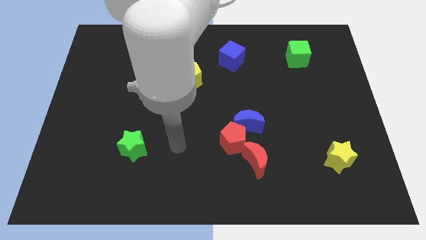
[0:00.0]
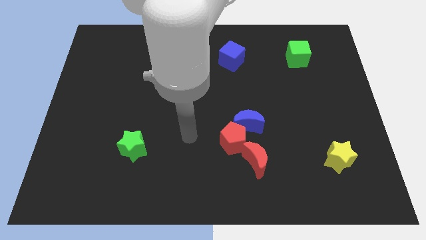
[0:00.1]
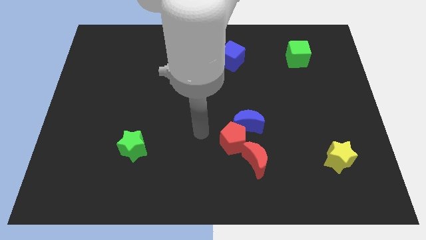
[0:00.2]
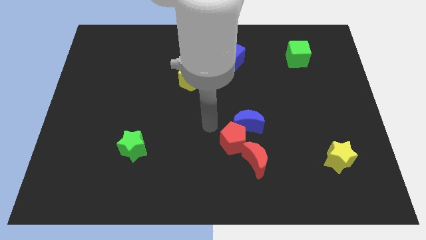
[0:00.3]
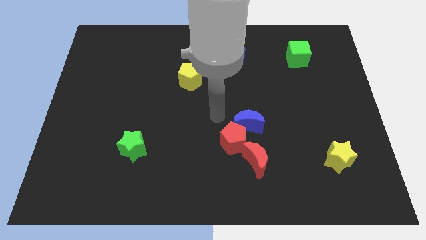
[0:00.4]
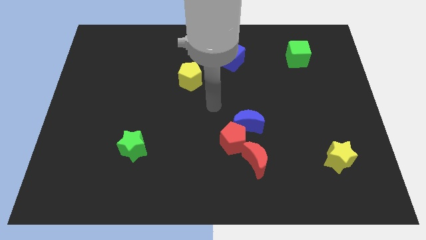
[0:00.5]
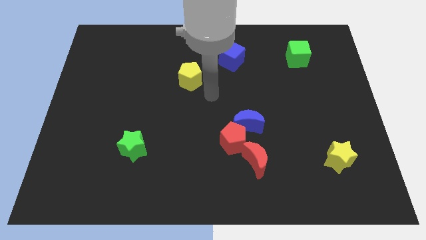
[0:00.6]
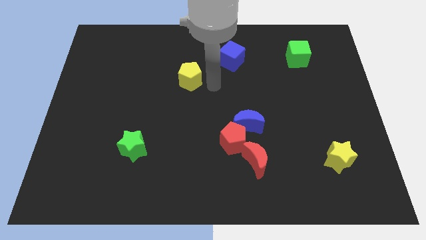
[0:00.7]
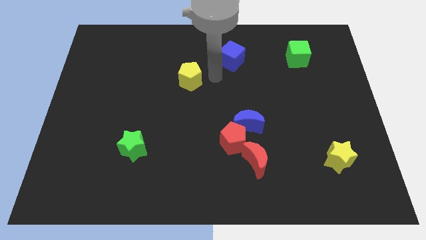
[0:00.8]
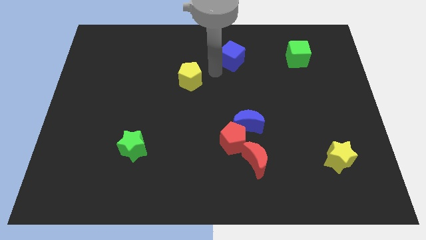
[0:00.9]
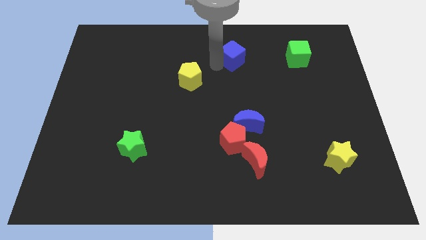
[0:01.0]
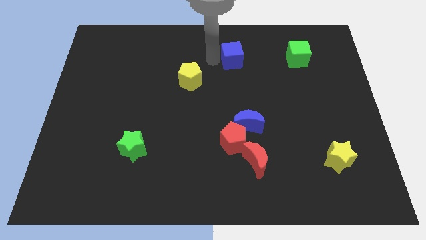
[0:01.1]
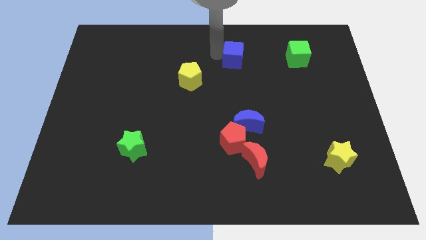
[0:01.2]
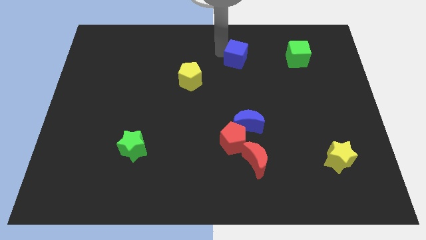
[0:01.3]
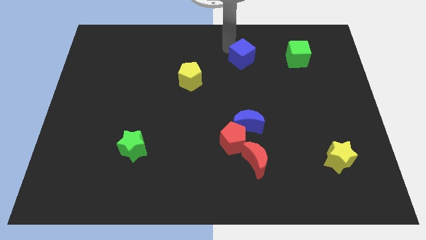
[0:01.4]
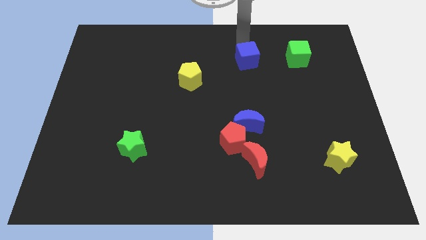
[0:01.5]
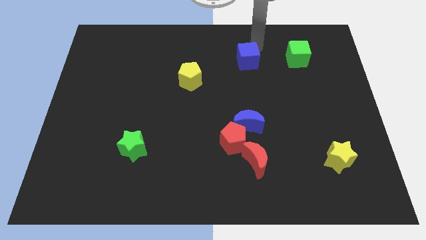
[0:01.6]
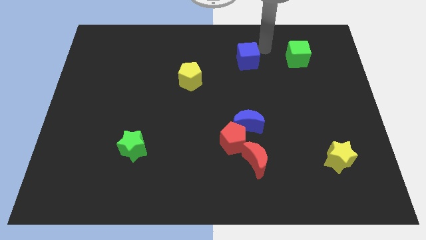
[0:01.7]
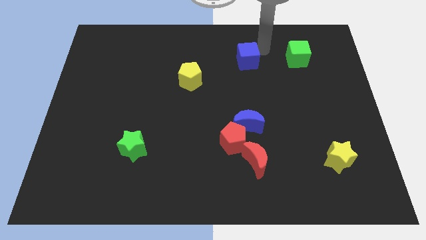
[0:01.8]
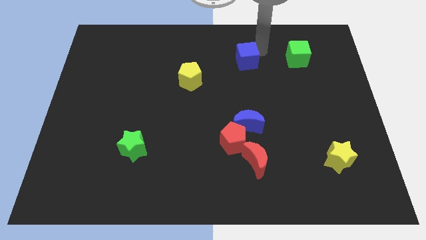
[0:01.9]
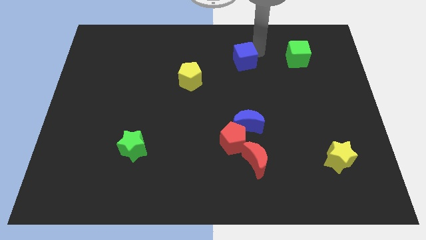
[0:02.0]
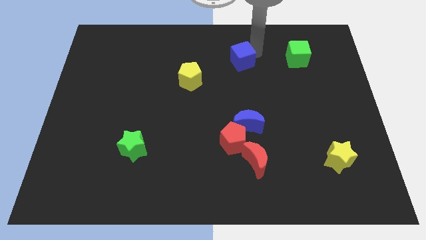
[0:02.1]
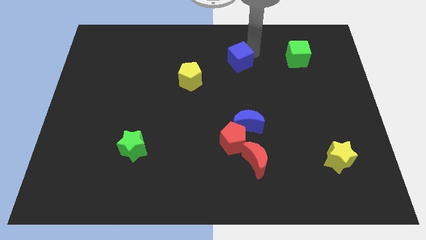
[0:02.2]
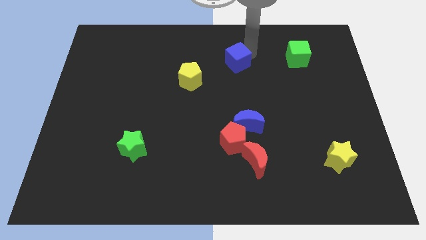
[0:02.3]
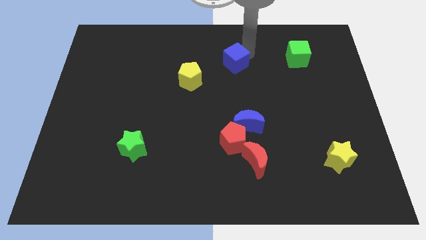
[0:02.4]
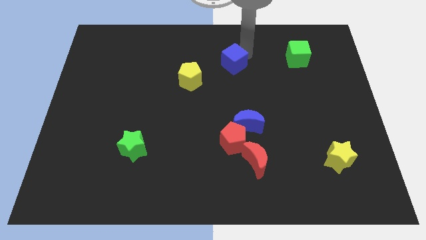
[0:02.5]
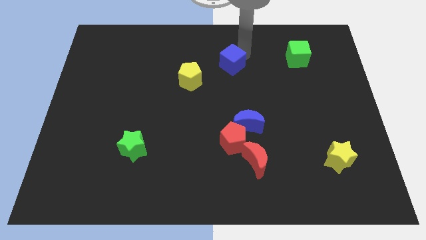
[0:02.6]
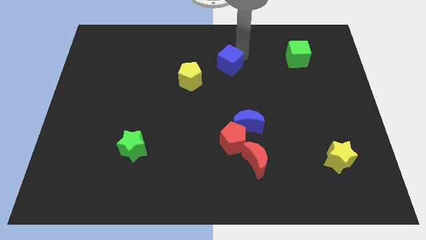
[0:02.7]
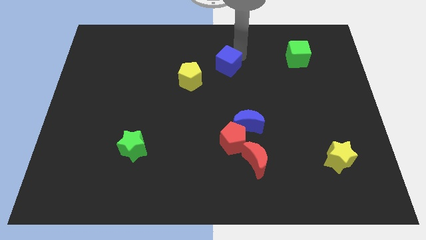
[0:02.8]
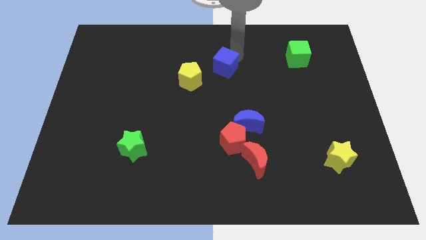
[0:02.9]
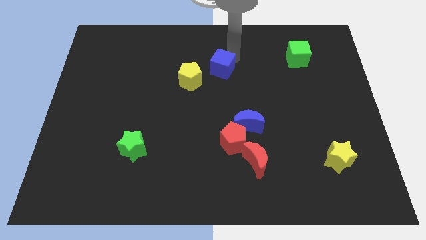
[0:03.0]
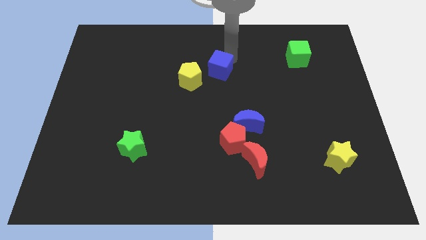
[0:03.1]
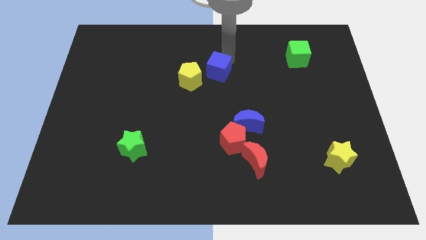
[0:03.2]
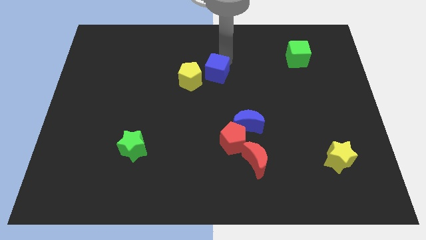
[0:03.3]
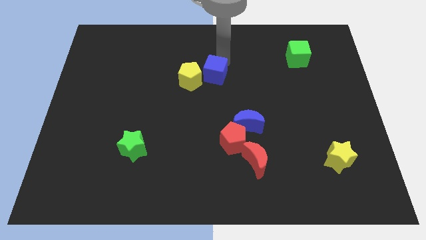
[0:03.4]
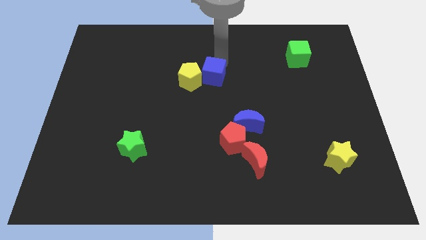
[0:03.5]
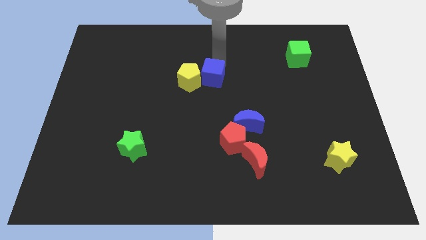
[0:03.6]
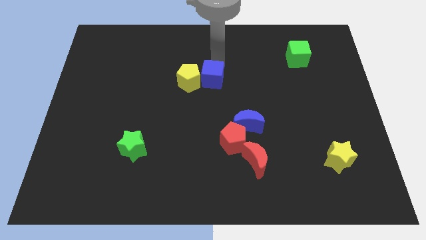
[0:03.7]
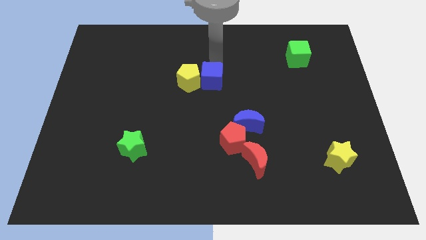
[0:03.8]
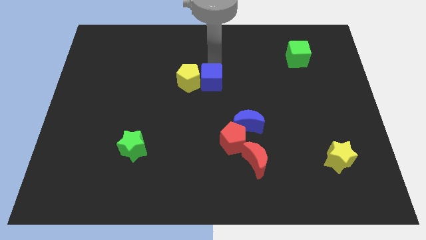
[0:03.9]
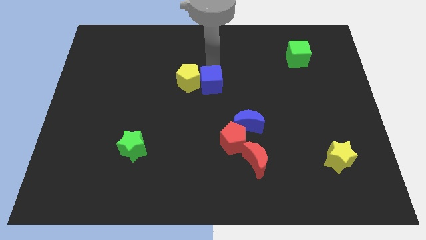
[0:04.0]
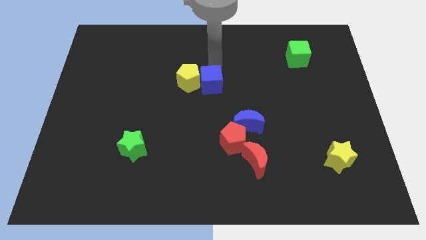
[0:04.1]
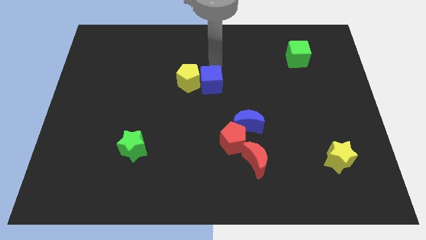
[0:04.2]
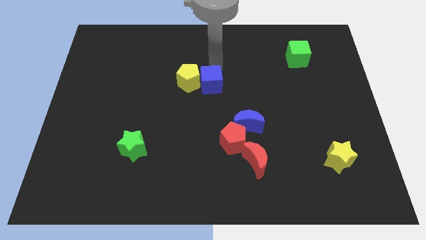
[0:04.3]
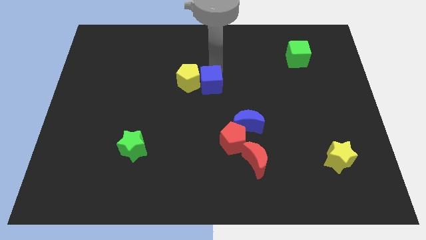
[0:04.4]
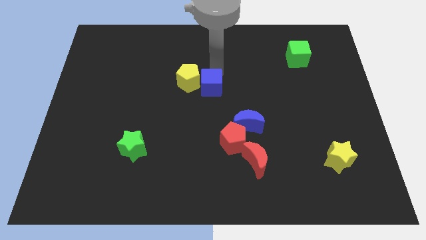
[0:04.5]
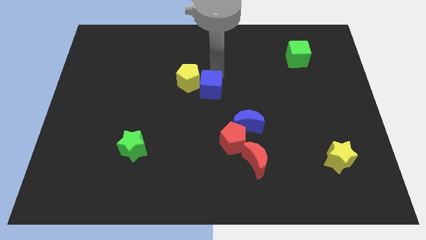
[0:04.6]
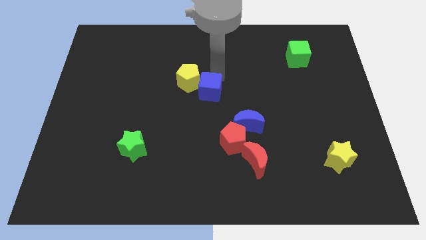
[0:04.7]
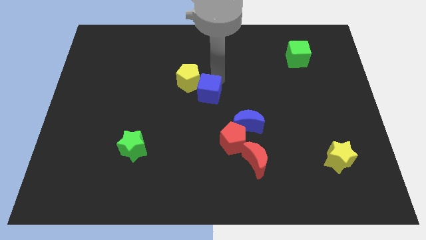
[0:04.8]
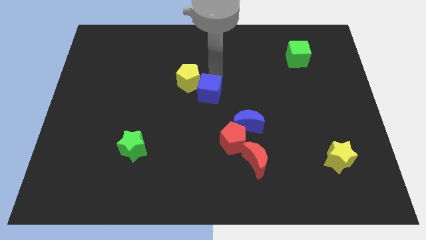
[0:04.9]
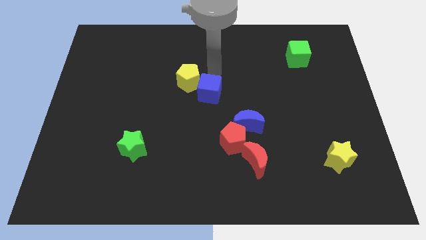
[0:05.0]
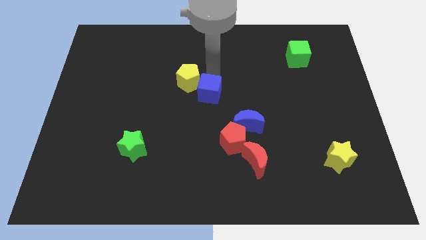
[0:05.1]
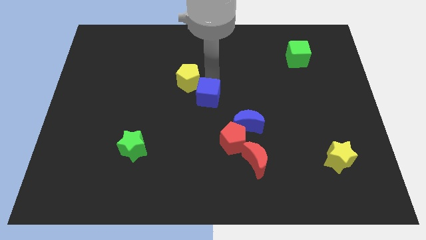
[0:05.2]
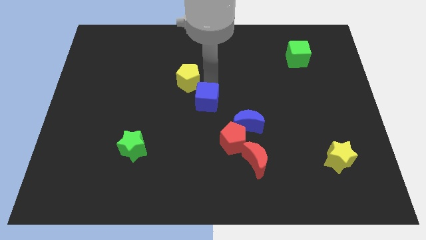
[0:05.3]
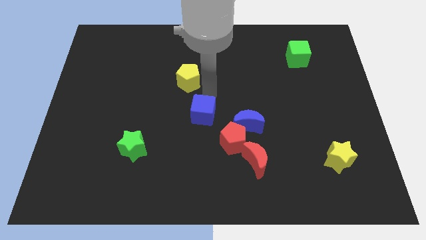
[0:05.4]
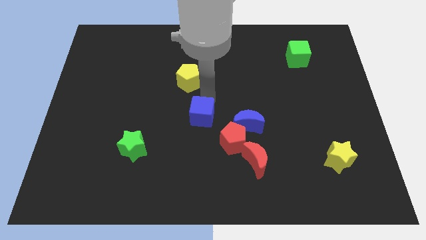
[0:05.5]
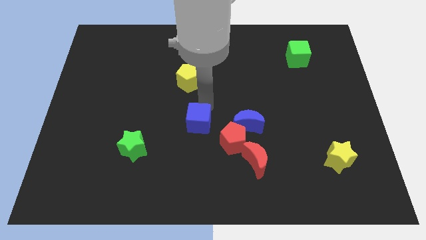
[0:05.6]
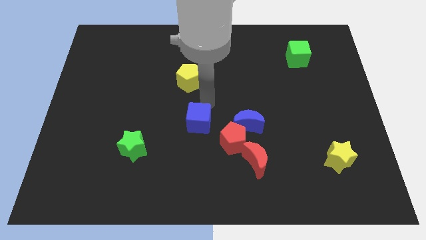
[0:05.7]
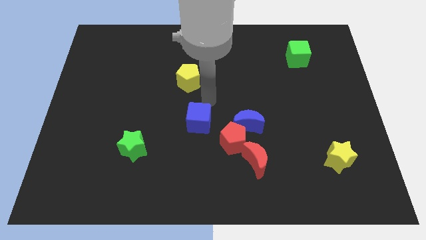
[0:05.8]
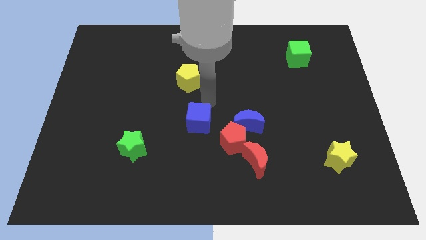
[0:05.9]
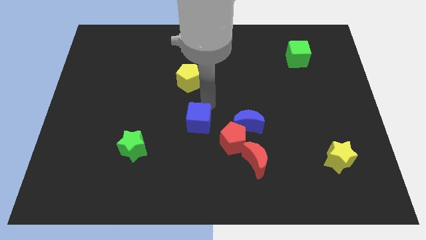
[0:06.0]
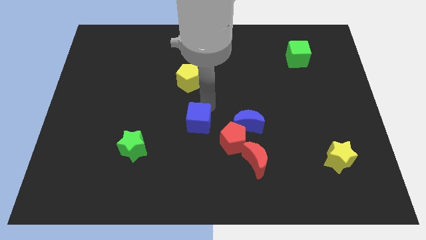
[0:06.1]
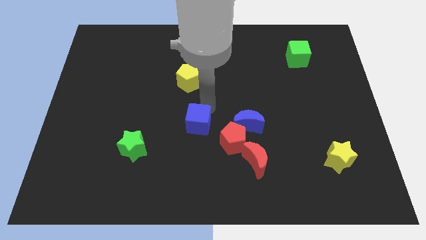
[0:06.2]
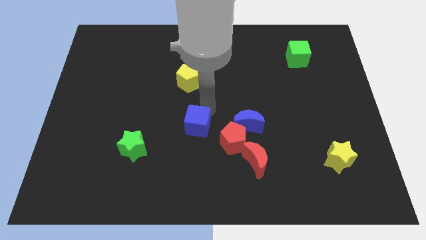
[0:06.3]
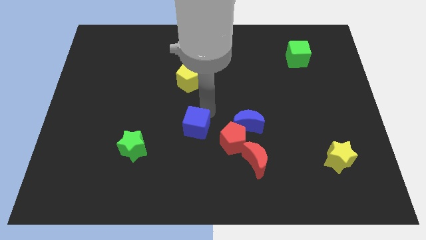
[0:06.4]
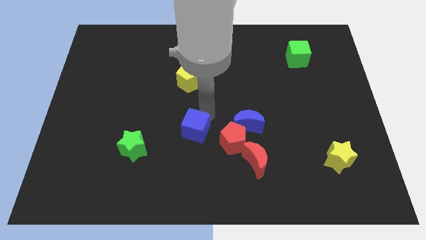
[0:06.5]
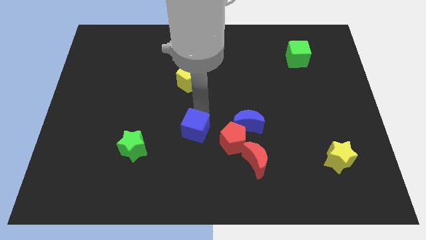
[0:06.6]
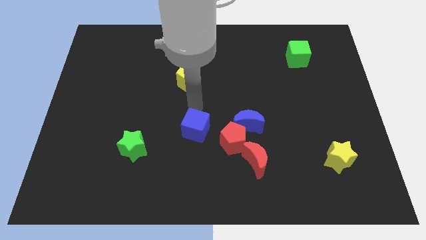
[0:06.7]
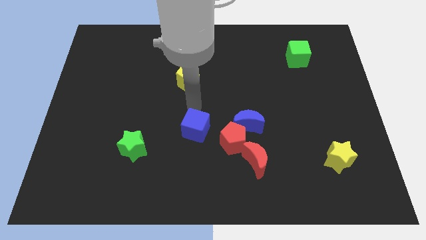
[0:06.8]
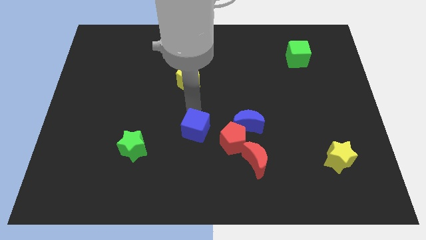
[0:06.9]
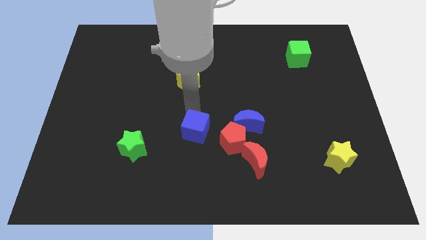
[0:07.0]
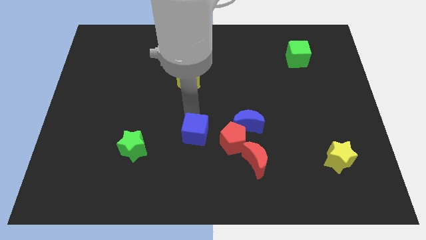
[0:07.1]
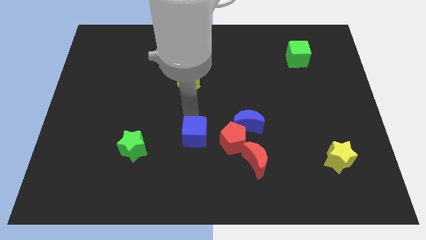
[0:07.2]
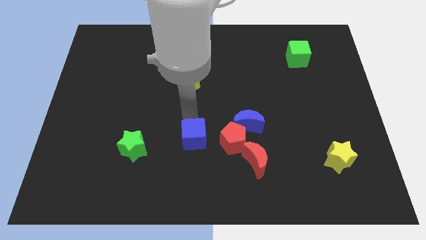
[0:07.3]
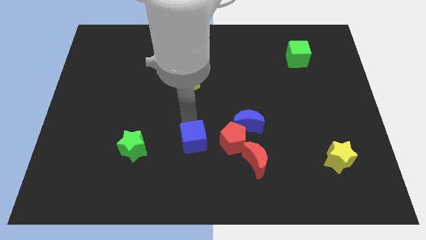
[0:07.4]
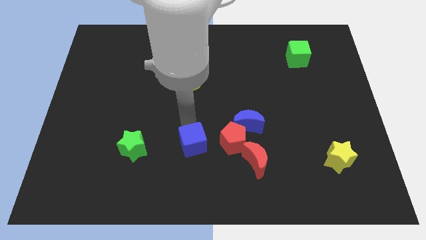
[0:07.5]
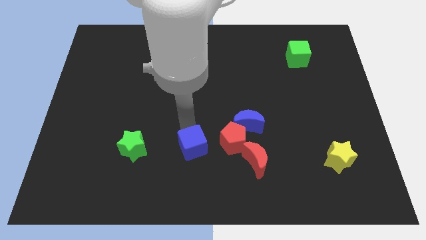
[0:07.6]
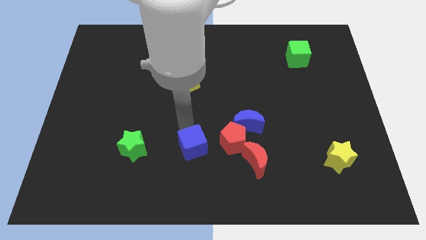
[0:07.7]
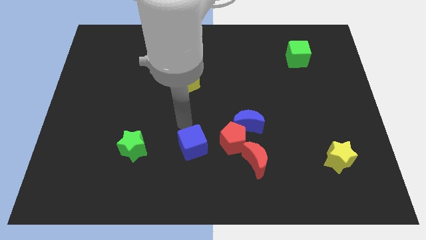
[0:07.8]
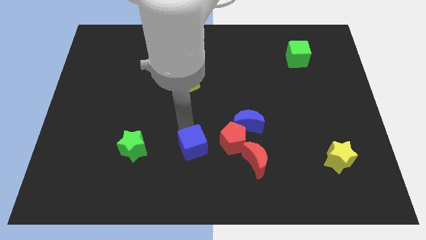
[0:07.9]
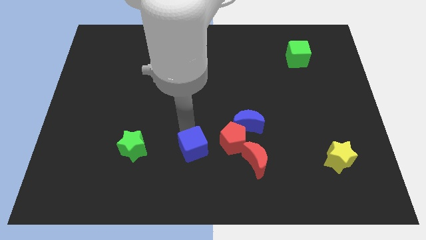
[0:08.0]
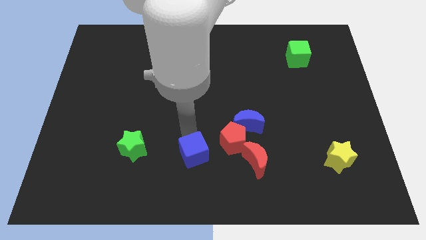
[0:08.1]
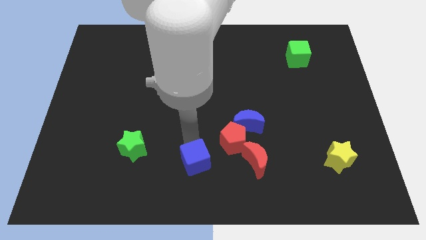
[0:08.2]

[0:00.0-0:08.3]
push the blue cube to the bottom
